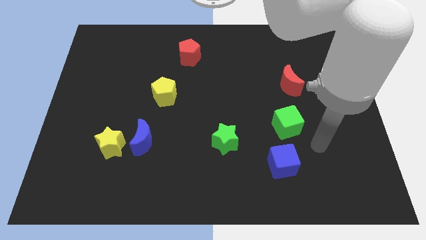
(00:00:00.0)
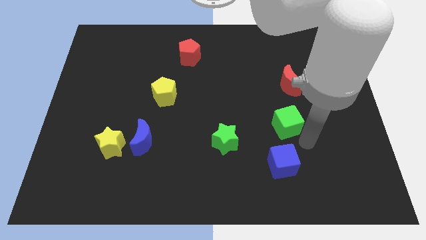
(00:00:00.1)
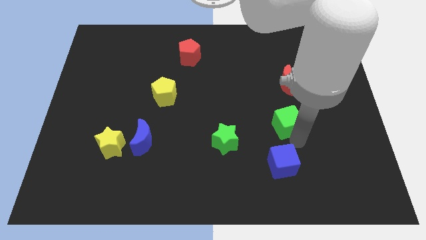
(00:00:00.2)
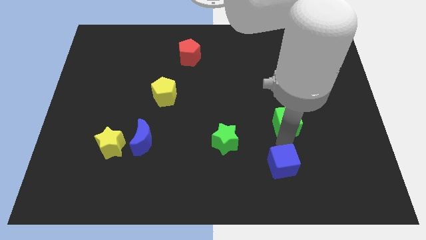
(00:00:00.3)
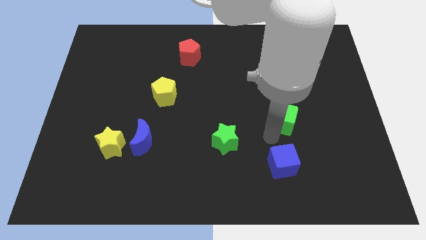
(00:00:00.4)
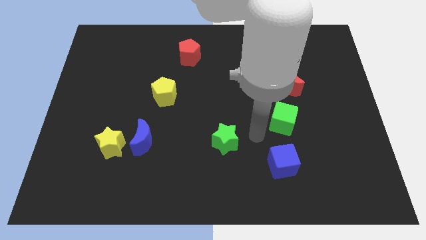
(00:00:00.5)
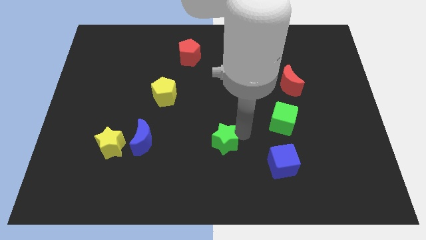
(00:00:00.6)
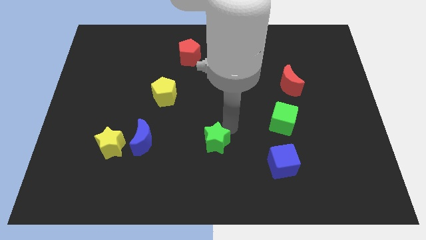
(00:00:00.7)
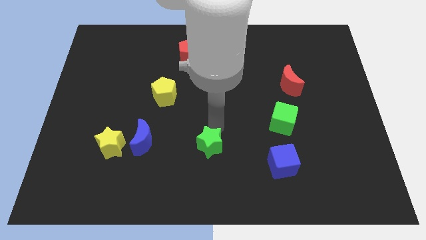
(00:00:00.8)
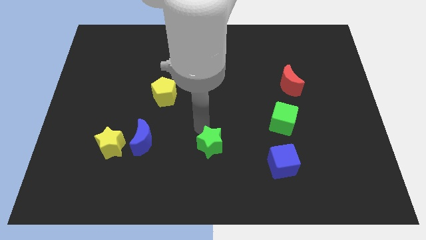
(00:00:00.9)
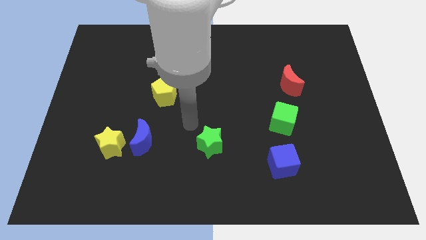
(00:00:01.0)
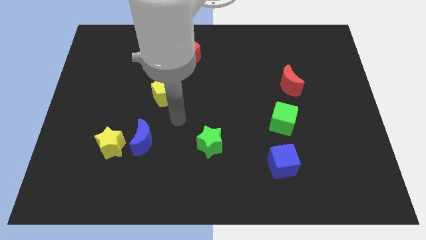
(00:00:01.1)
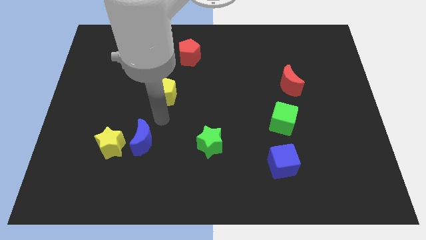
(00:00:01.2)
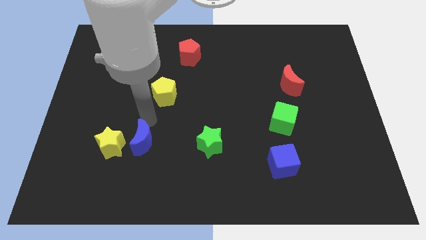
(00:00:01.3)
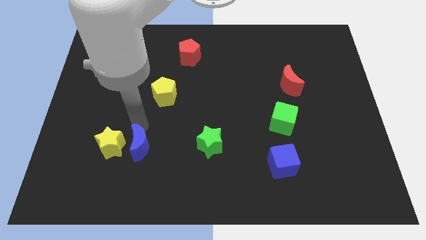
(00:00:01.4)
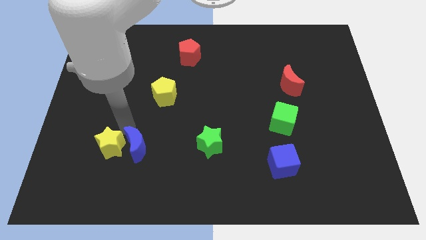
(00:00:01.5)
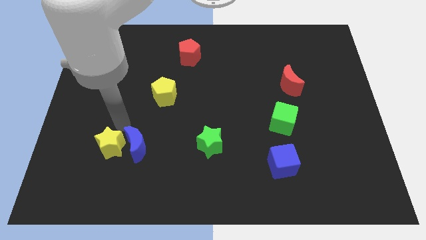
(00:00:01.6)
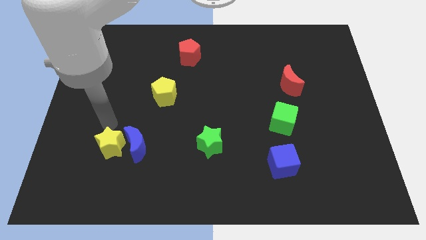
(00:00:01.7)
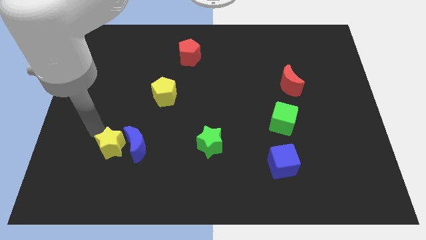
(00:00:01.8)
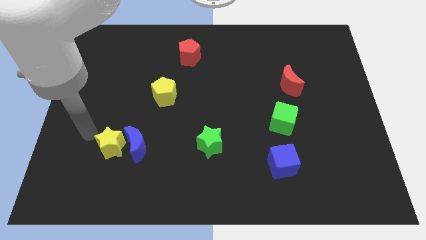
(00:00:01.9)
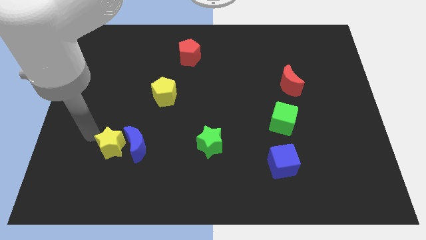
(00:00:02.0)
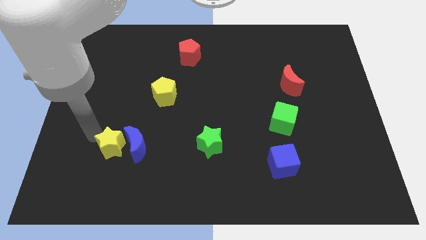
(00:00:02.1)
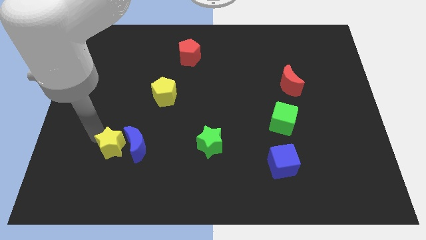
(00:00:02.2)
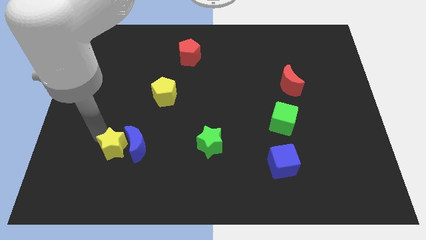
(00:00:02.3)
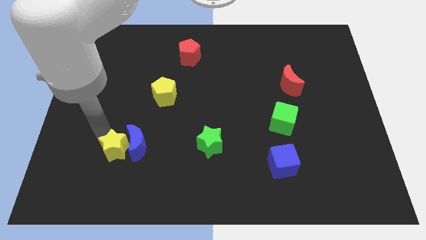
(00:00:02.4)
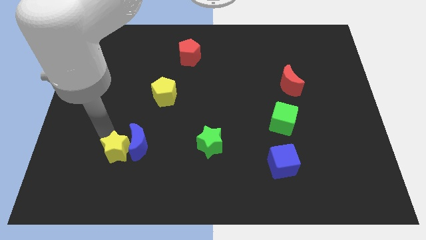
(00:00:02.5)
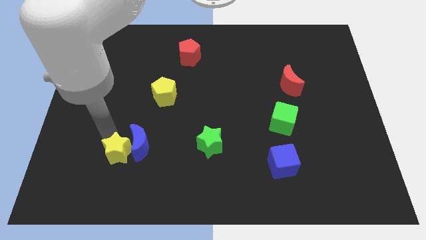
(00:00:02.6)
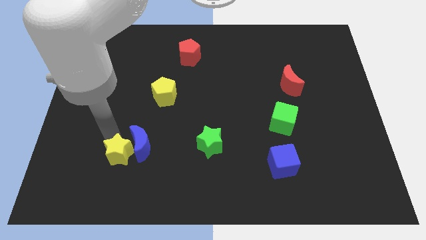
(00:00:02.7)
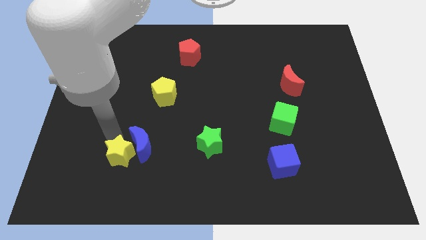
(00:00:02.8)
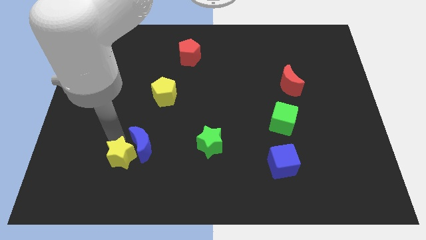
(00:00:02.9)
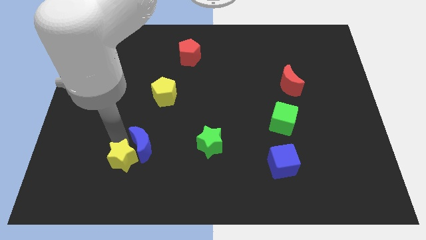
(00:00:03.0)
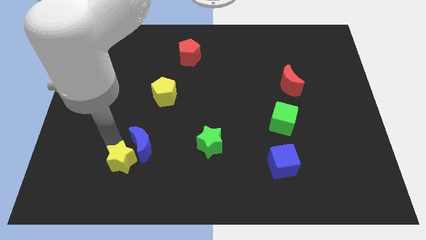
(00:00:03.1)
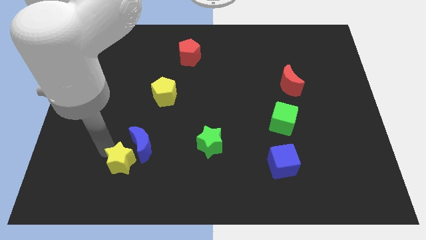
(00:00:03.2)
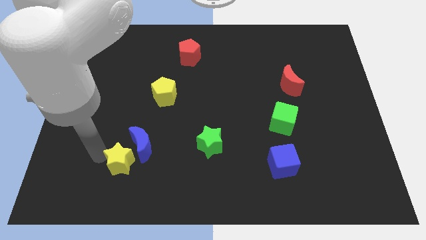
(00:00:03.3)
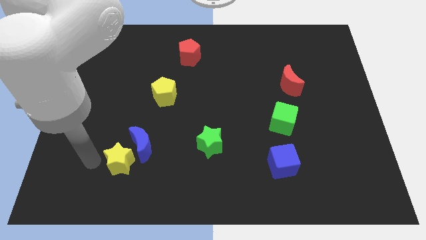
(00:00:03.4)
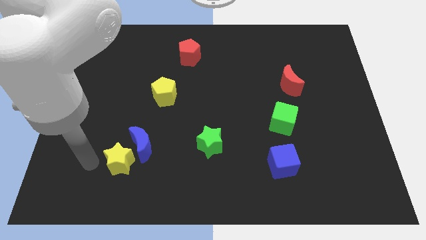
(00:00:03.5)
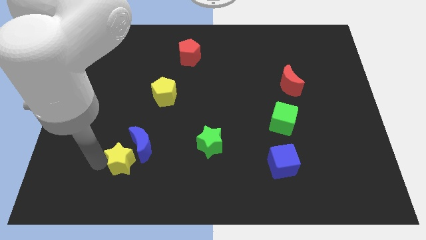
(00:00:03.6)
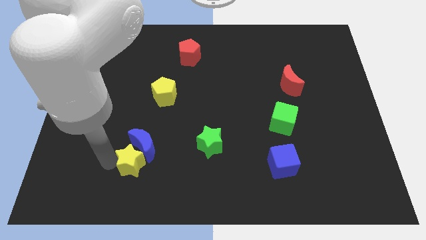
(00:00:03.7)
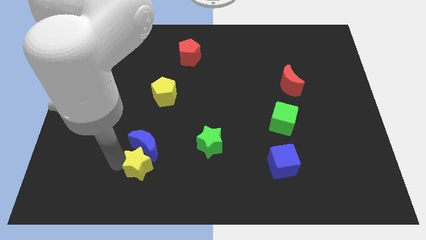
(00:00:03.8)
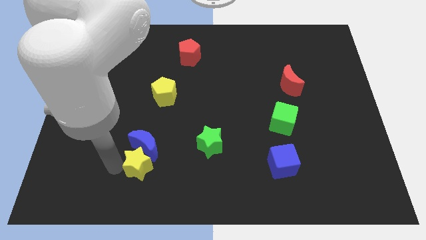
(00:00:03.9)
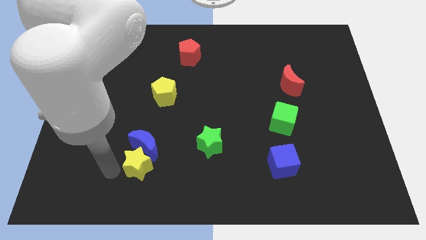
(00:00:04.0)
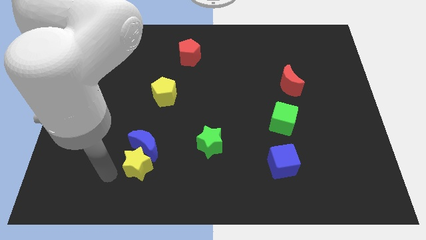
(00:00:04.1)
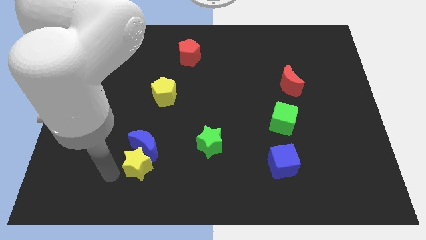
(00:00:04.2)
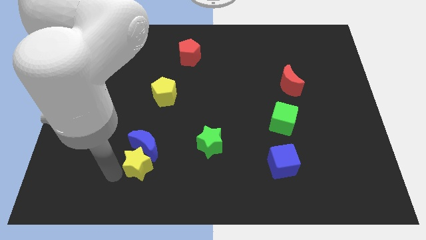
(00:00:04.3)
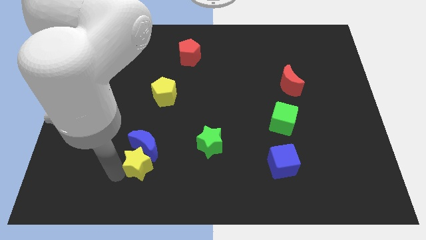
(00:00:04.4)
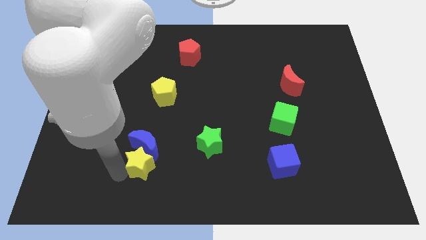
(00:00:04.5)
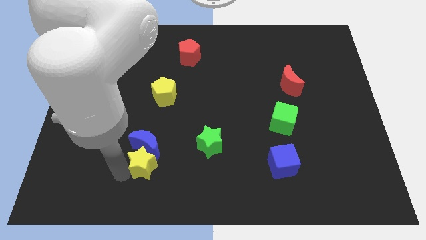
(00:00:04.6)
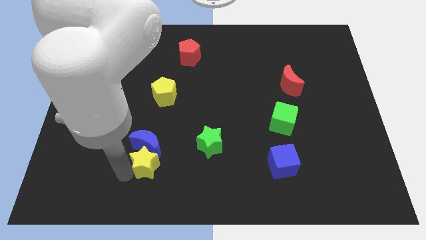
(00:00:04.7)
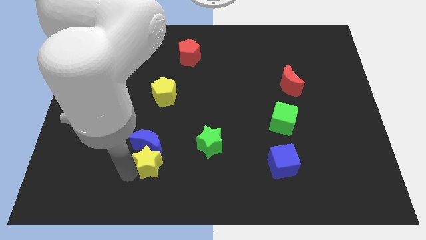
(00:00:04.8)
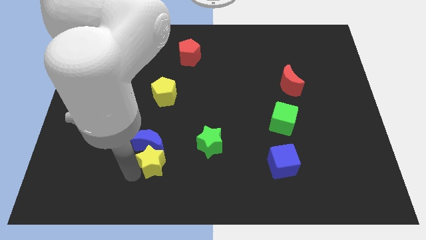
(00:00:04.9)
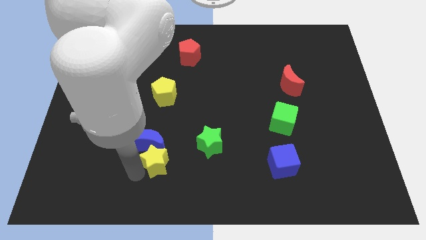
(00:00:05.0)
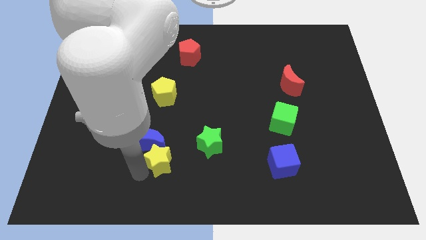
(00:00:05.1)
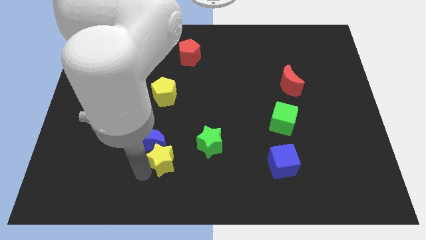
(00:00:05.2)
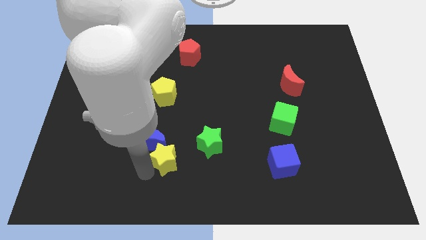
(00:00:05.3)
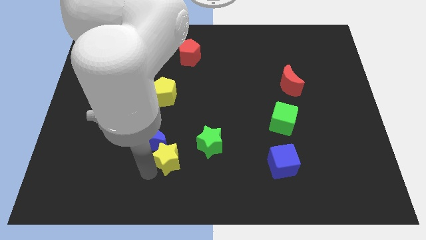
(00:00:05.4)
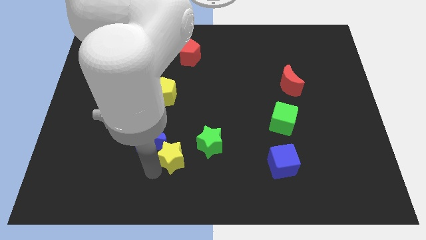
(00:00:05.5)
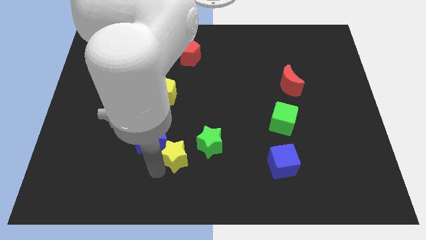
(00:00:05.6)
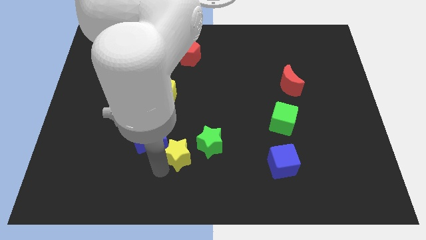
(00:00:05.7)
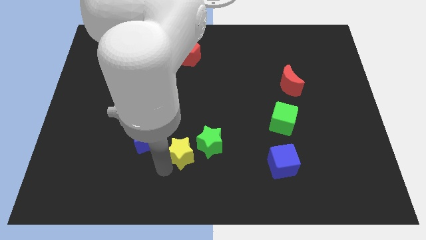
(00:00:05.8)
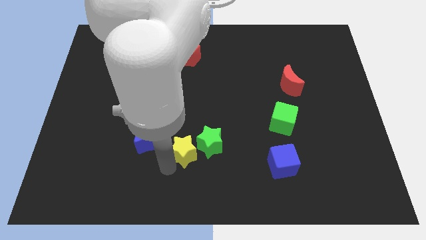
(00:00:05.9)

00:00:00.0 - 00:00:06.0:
put the yellow star to the green star

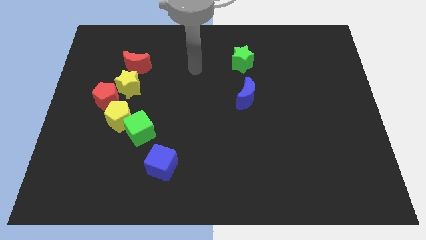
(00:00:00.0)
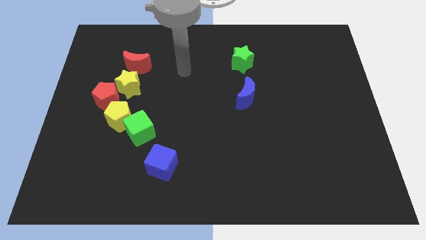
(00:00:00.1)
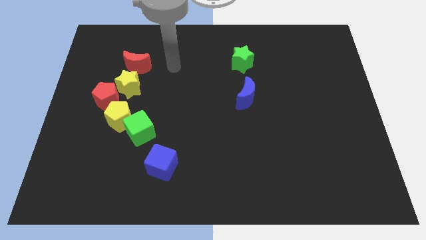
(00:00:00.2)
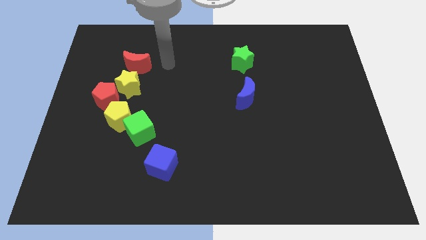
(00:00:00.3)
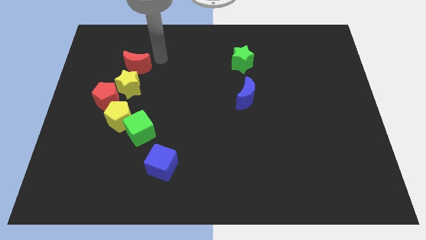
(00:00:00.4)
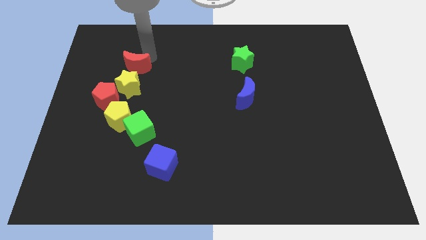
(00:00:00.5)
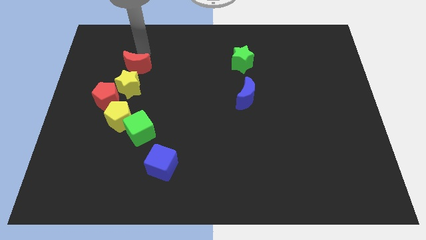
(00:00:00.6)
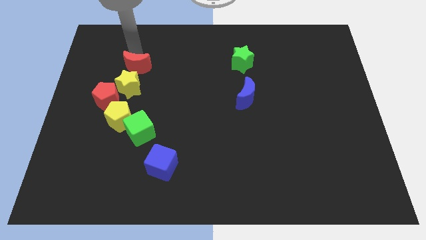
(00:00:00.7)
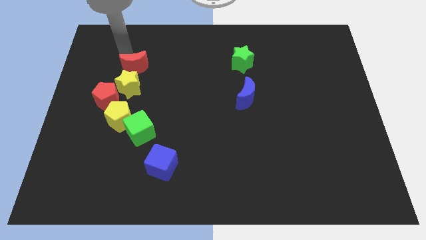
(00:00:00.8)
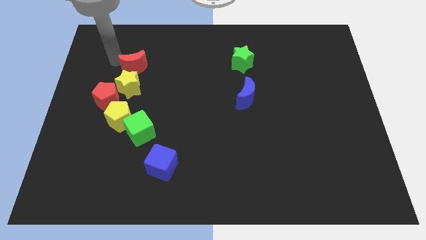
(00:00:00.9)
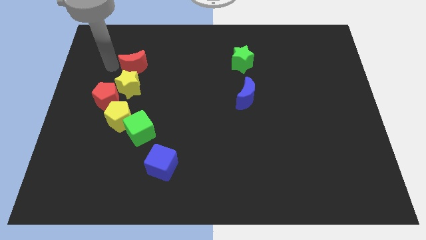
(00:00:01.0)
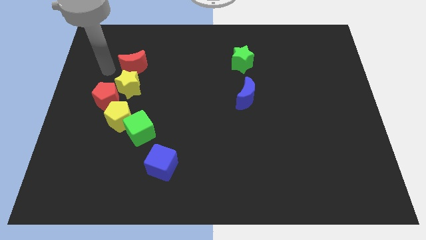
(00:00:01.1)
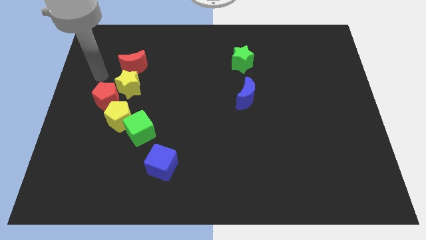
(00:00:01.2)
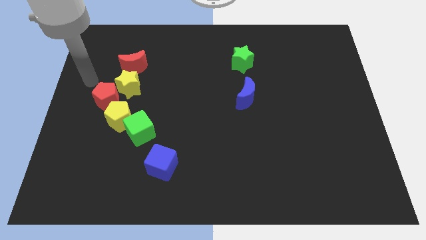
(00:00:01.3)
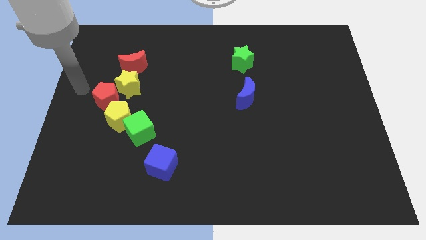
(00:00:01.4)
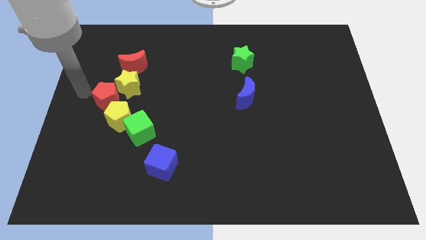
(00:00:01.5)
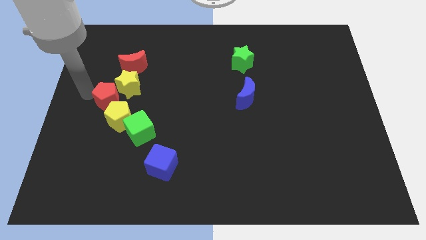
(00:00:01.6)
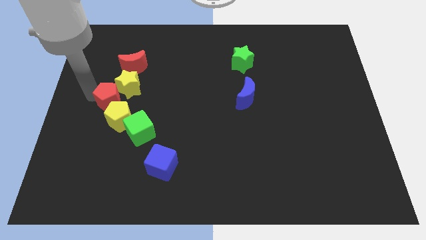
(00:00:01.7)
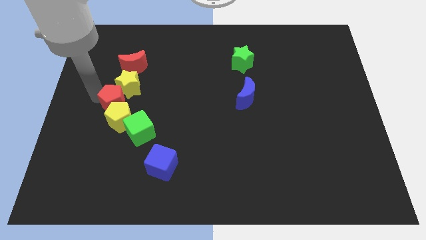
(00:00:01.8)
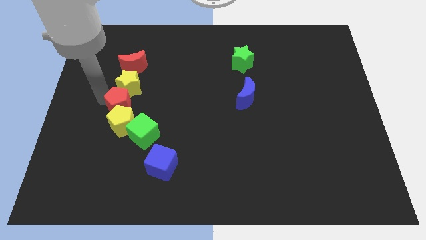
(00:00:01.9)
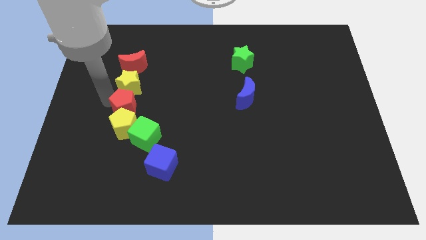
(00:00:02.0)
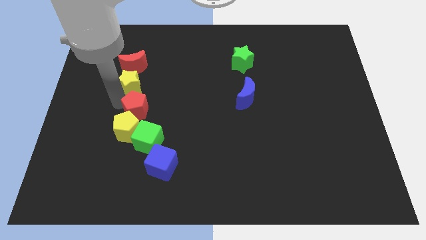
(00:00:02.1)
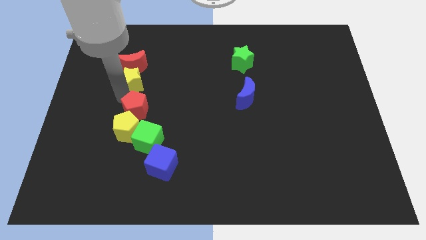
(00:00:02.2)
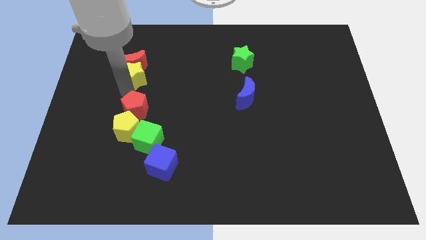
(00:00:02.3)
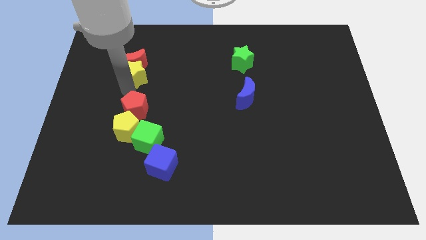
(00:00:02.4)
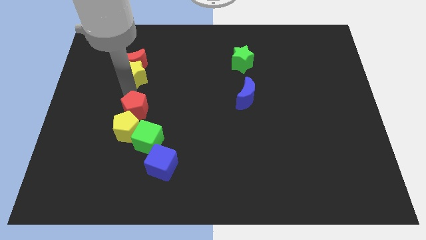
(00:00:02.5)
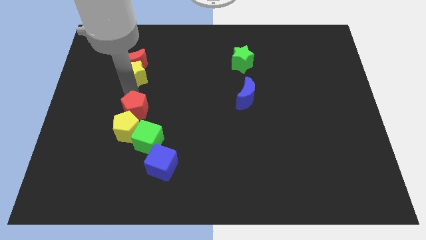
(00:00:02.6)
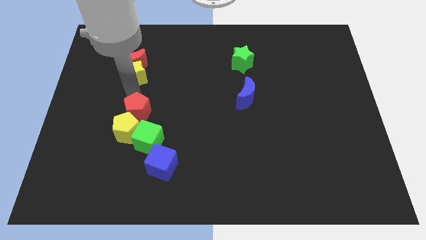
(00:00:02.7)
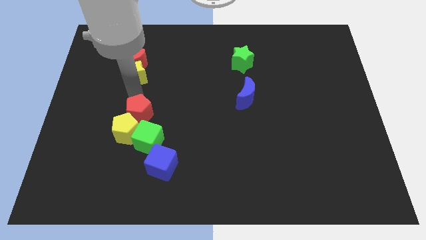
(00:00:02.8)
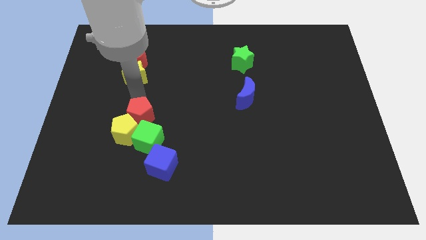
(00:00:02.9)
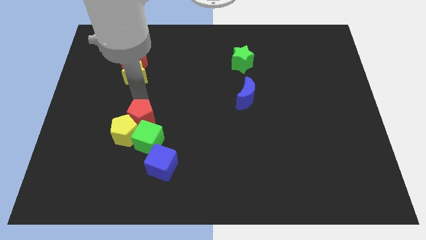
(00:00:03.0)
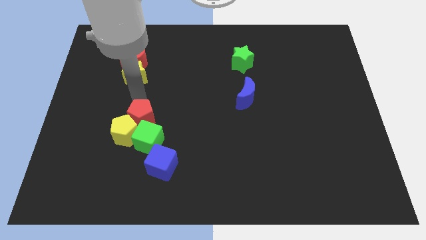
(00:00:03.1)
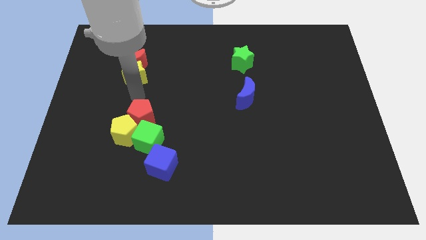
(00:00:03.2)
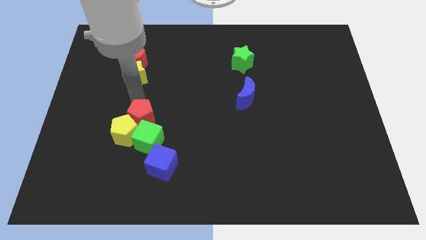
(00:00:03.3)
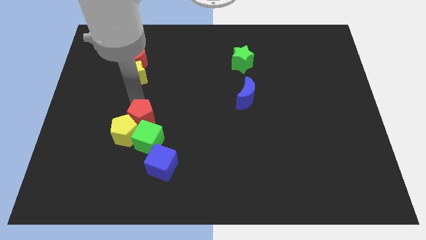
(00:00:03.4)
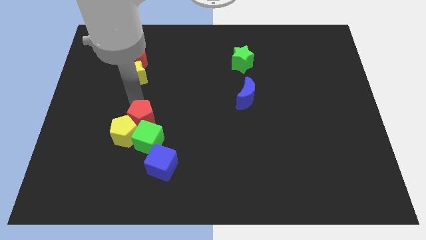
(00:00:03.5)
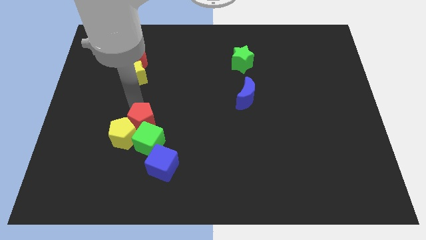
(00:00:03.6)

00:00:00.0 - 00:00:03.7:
push the red pentagon close to the green cube
